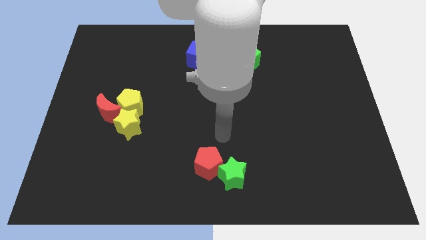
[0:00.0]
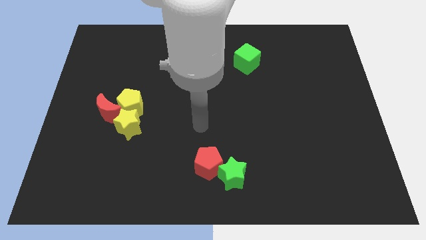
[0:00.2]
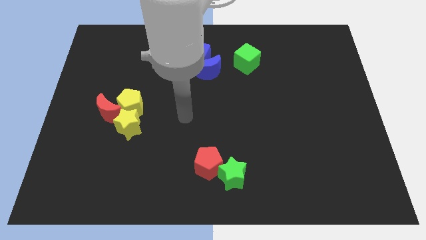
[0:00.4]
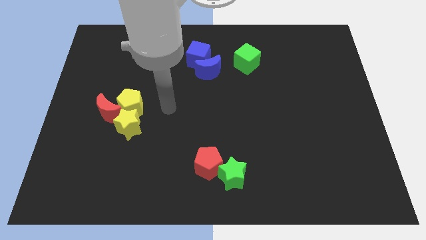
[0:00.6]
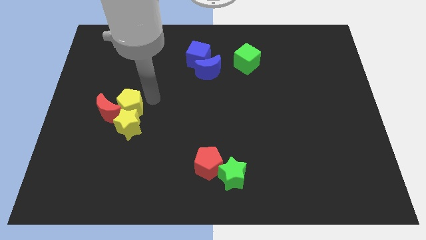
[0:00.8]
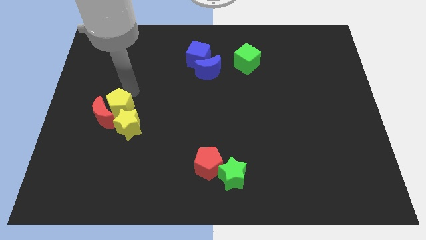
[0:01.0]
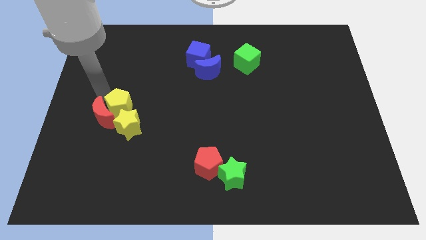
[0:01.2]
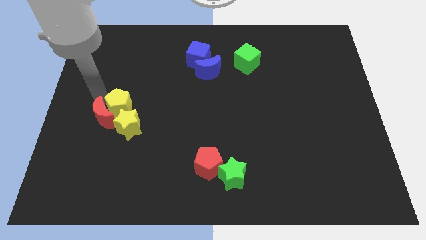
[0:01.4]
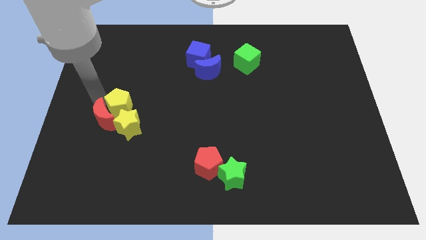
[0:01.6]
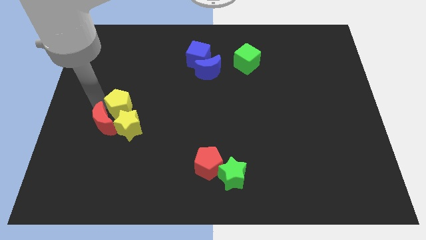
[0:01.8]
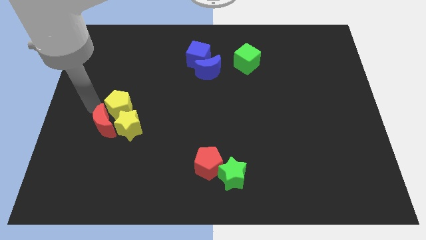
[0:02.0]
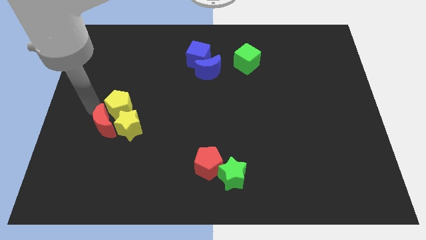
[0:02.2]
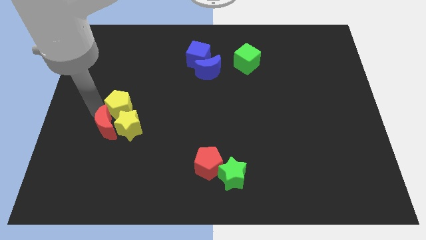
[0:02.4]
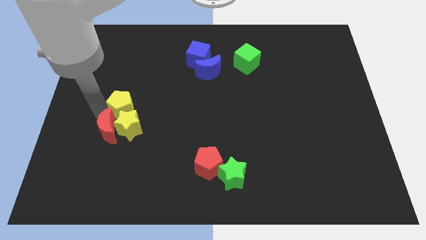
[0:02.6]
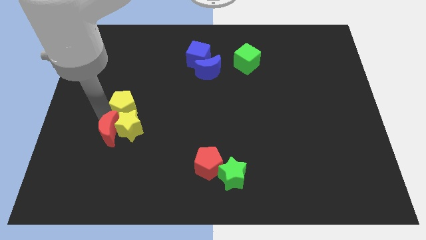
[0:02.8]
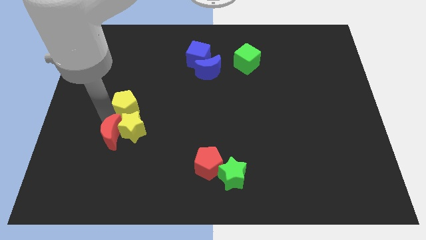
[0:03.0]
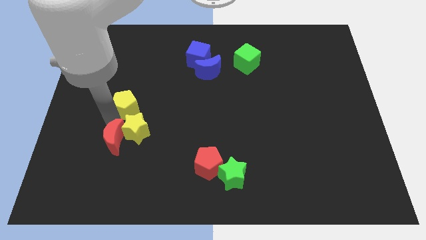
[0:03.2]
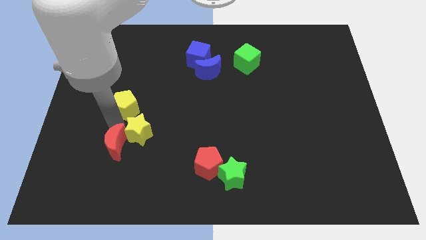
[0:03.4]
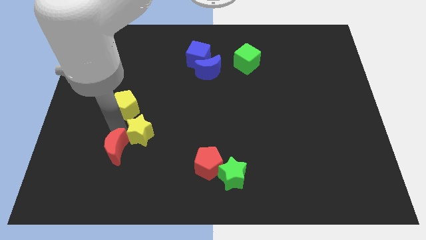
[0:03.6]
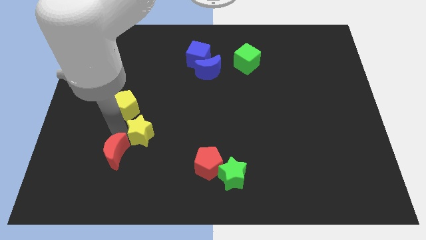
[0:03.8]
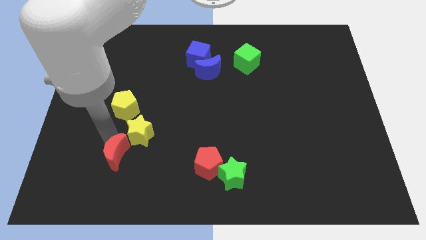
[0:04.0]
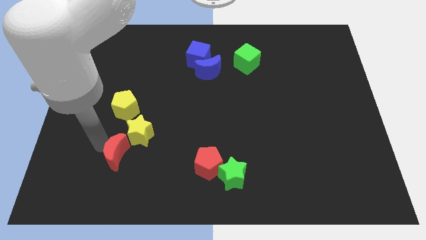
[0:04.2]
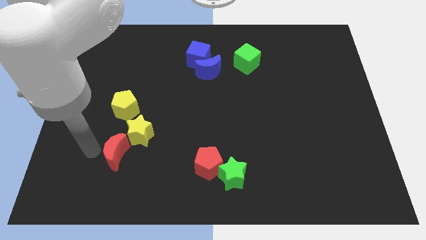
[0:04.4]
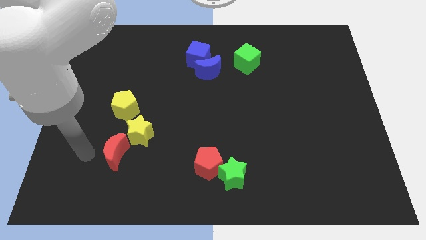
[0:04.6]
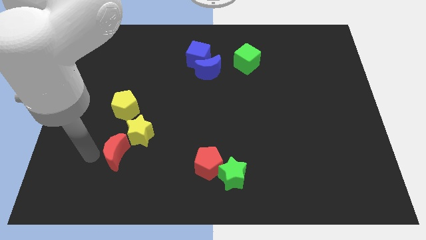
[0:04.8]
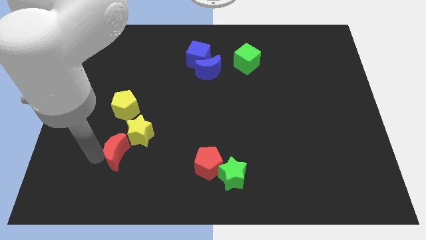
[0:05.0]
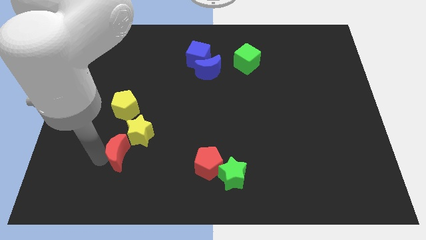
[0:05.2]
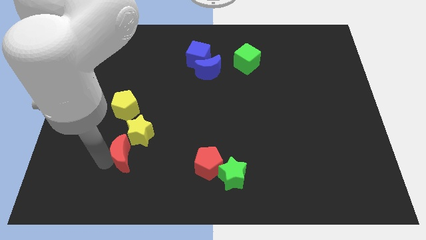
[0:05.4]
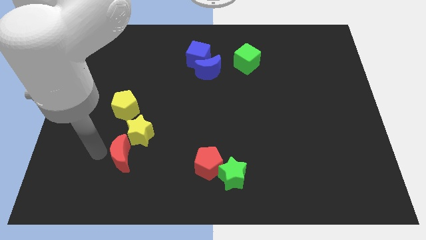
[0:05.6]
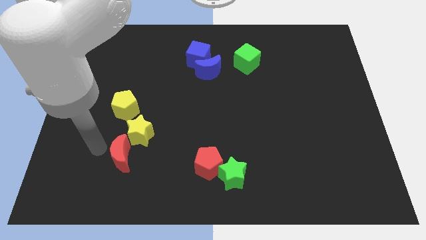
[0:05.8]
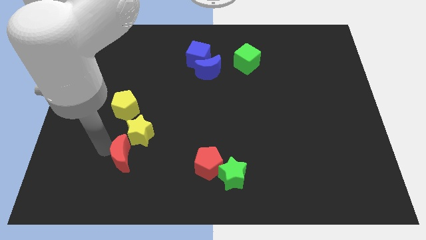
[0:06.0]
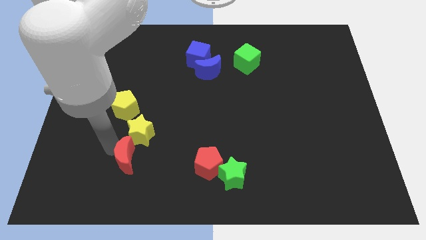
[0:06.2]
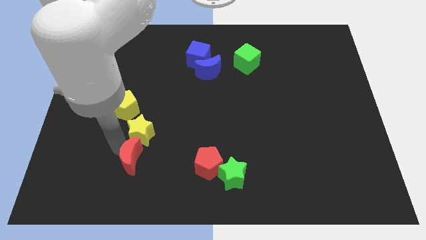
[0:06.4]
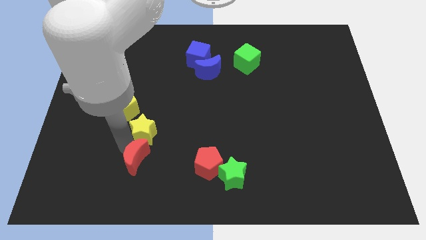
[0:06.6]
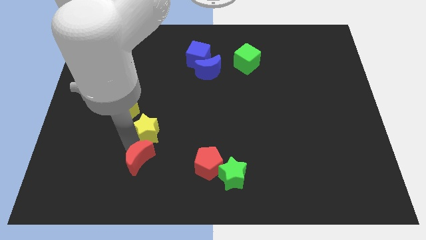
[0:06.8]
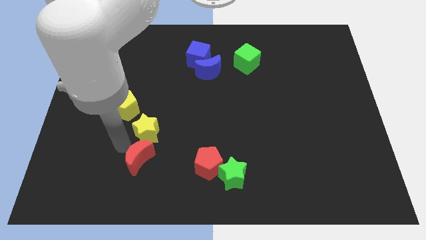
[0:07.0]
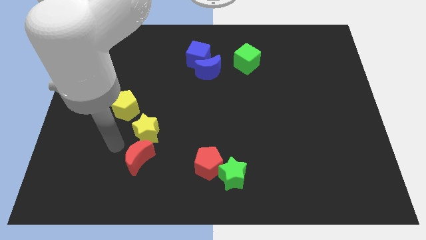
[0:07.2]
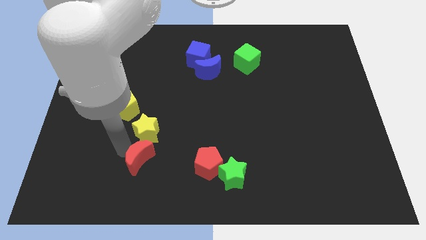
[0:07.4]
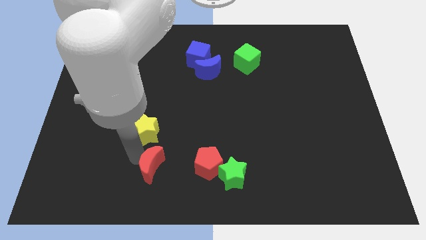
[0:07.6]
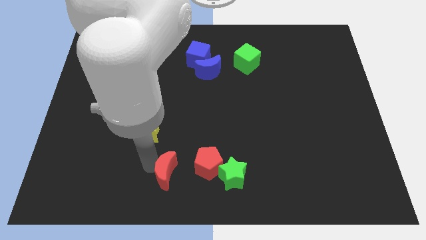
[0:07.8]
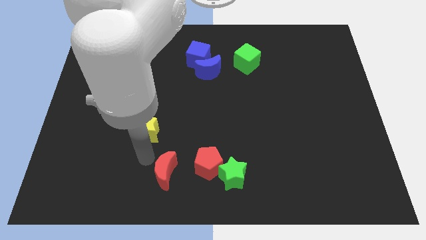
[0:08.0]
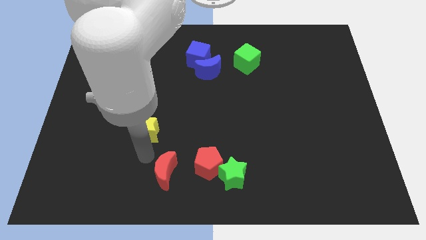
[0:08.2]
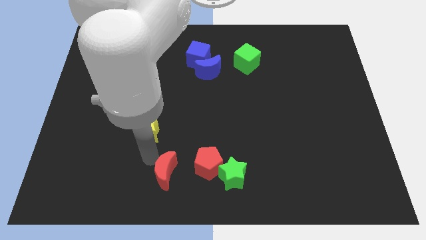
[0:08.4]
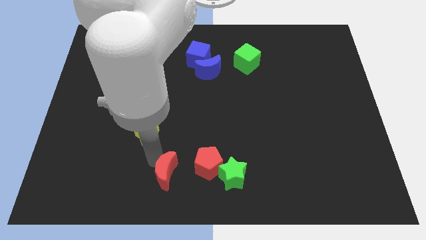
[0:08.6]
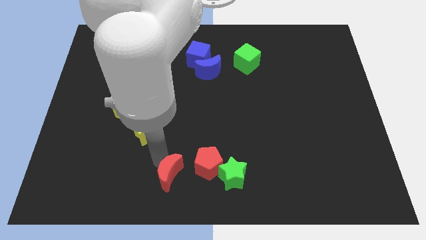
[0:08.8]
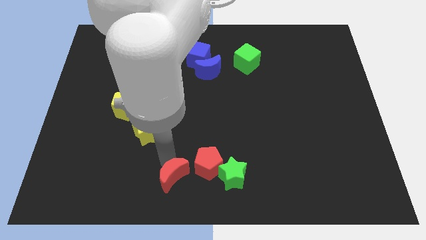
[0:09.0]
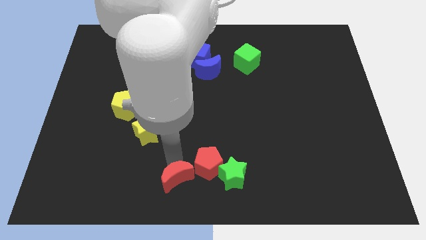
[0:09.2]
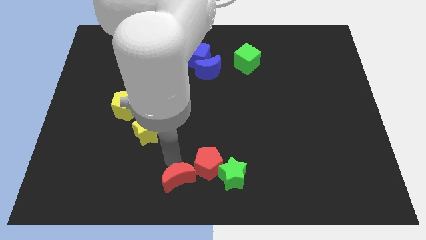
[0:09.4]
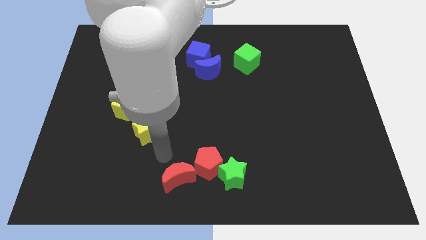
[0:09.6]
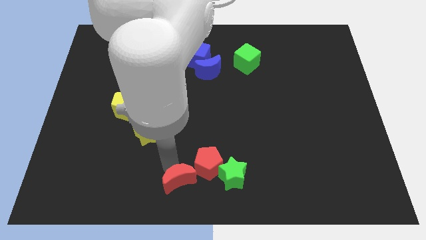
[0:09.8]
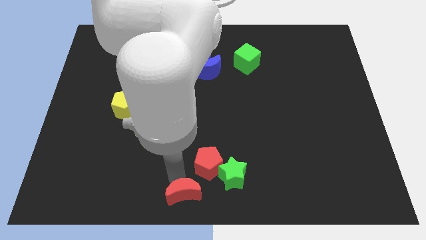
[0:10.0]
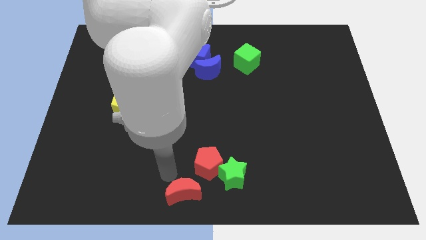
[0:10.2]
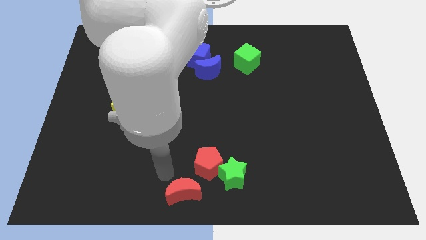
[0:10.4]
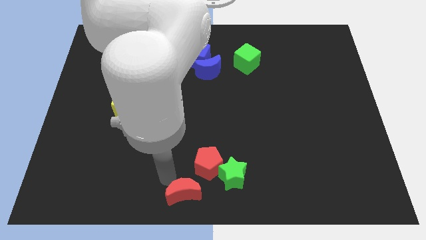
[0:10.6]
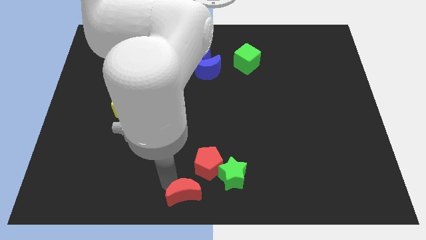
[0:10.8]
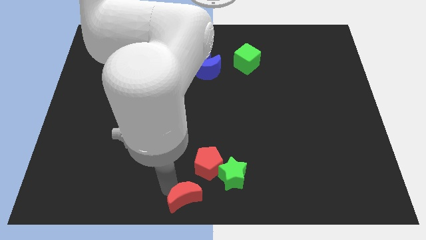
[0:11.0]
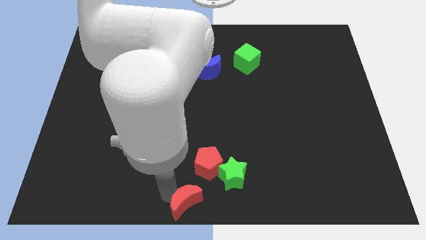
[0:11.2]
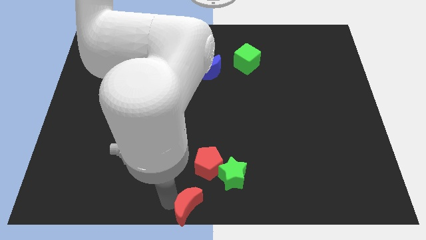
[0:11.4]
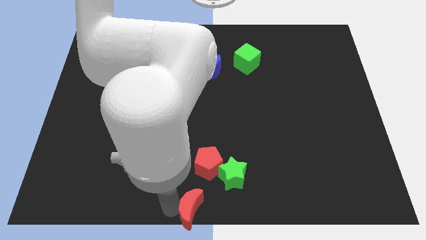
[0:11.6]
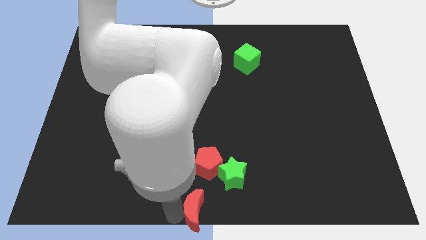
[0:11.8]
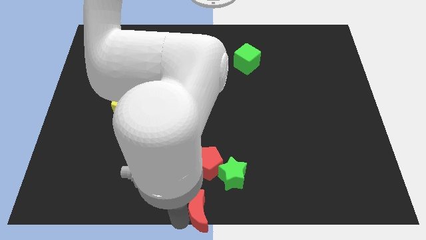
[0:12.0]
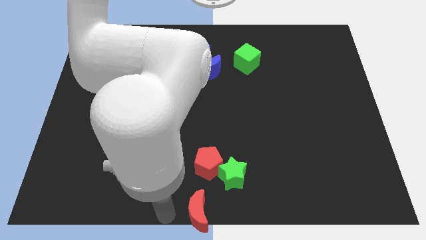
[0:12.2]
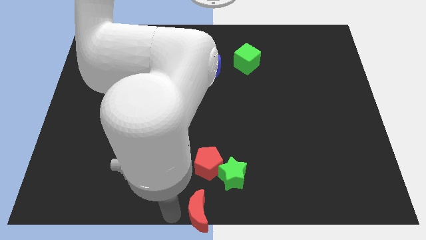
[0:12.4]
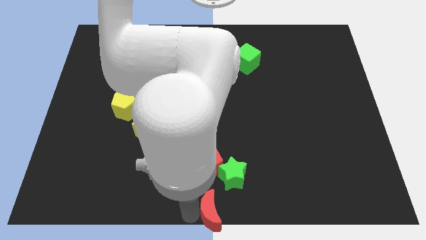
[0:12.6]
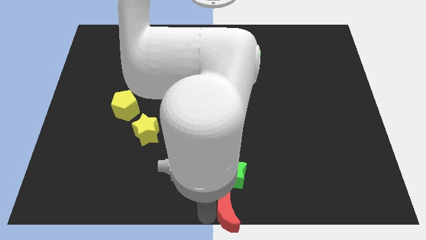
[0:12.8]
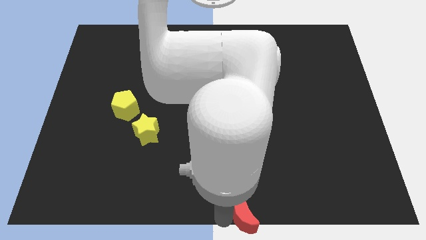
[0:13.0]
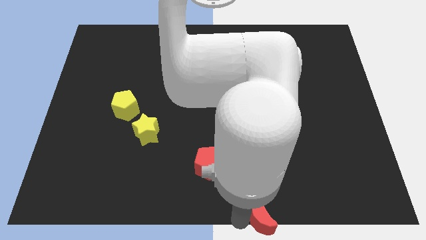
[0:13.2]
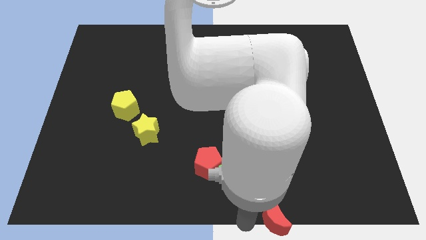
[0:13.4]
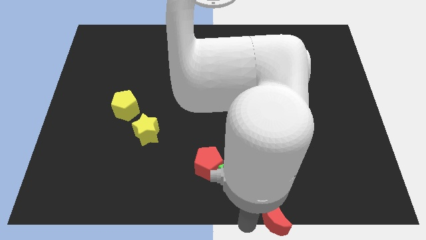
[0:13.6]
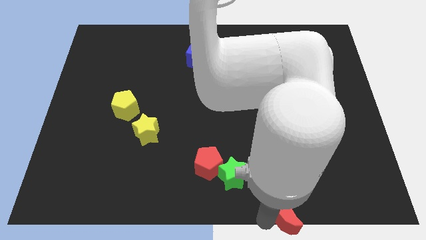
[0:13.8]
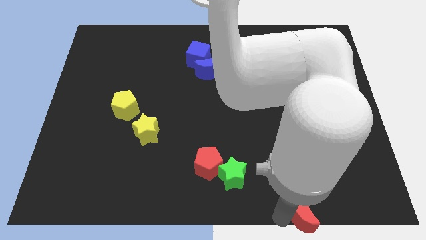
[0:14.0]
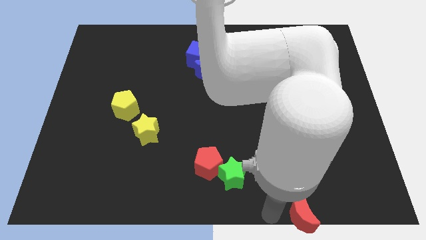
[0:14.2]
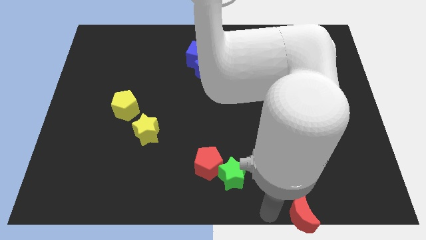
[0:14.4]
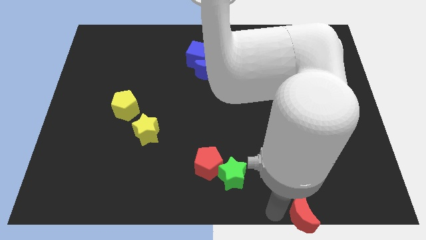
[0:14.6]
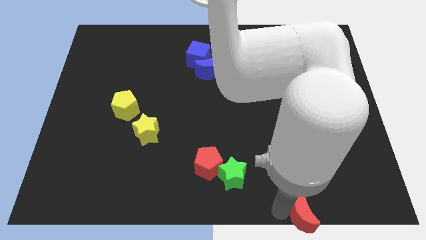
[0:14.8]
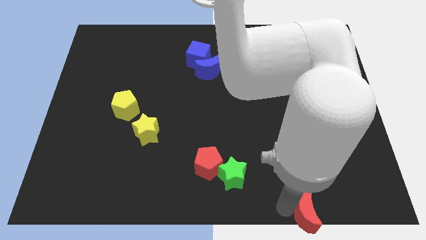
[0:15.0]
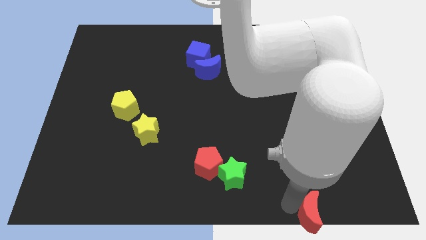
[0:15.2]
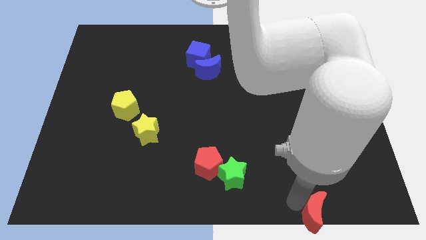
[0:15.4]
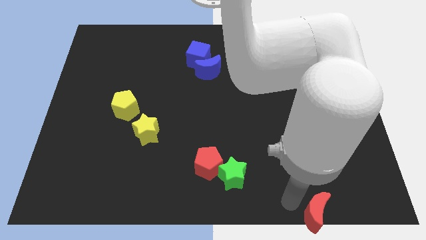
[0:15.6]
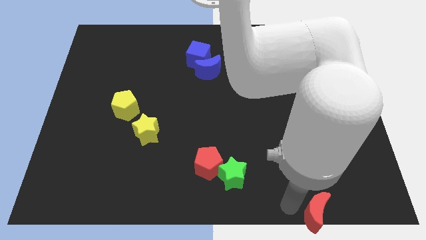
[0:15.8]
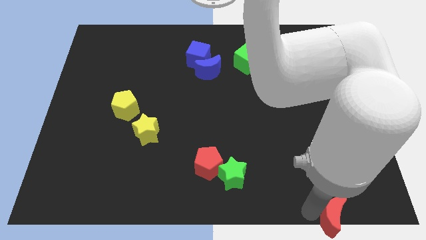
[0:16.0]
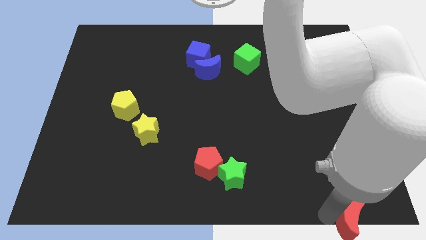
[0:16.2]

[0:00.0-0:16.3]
put the red moon to the bottom right corner
